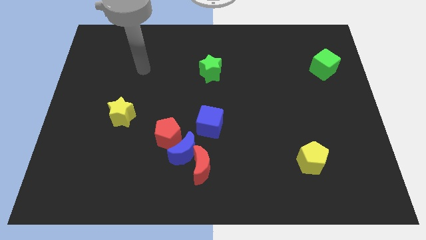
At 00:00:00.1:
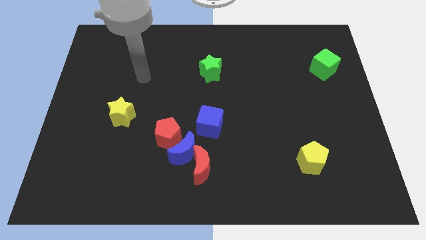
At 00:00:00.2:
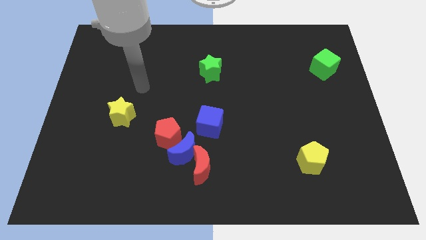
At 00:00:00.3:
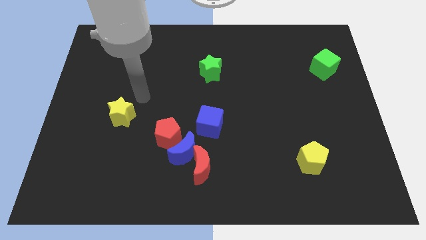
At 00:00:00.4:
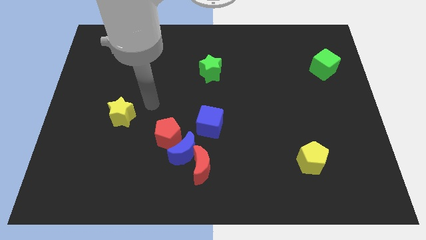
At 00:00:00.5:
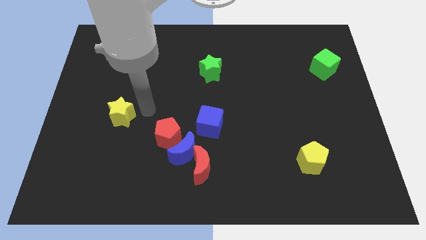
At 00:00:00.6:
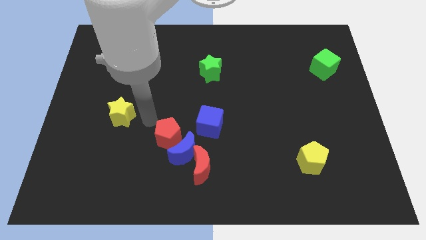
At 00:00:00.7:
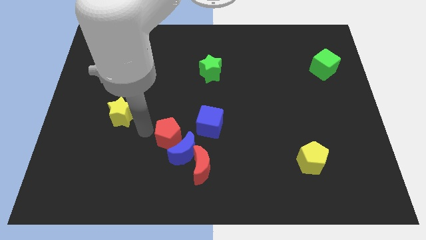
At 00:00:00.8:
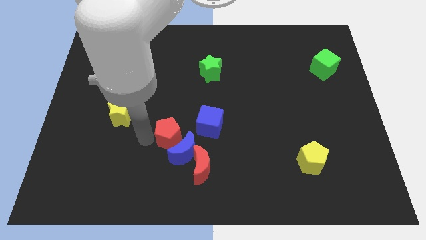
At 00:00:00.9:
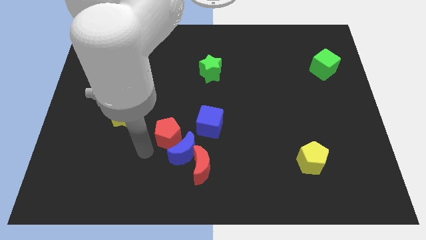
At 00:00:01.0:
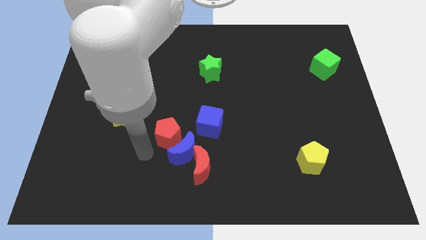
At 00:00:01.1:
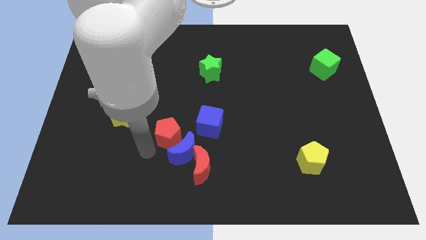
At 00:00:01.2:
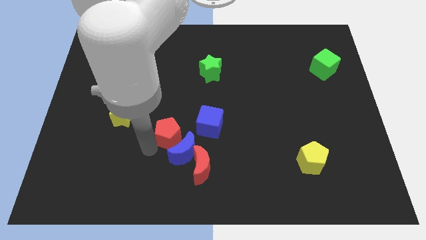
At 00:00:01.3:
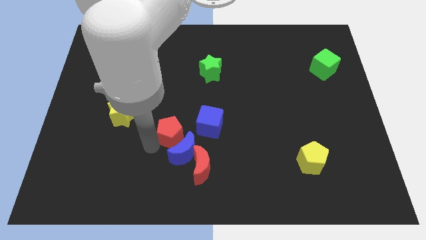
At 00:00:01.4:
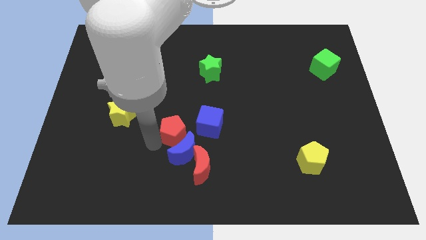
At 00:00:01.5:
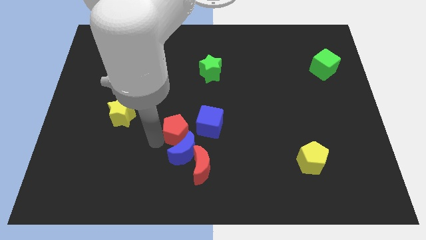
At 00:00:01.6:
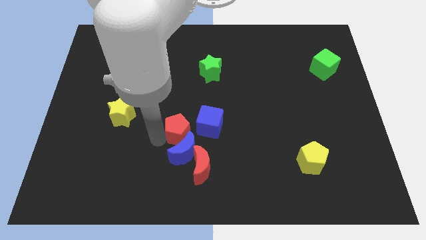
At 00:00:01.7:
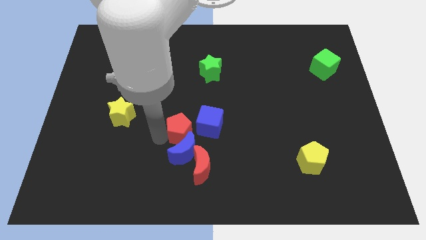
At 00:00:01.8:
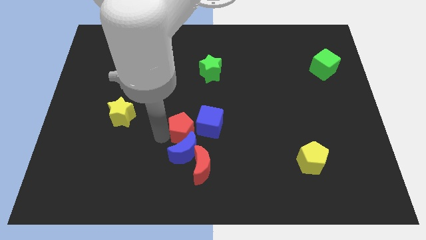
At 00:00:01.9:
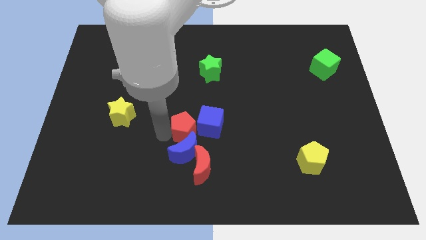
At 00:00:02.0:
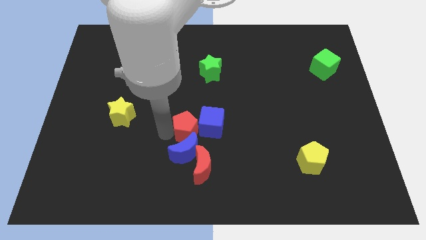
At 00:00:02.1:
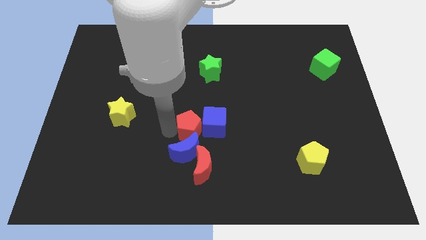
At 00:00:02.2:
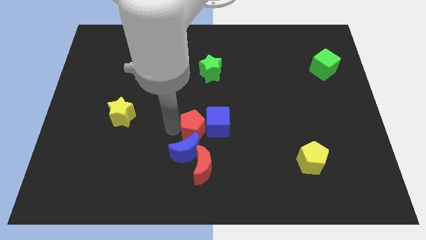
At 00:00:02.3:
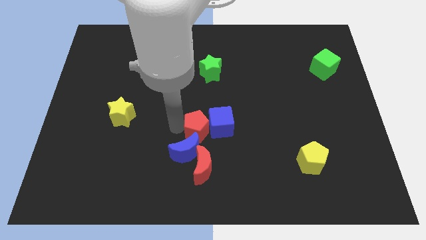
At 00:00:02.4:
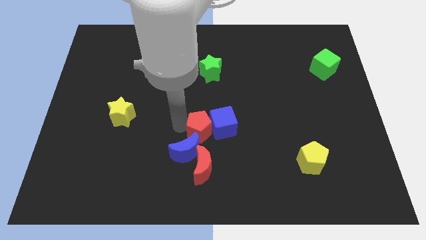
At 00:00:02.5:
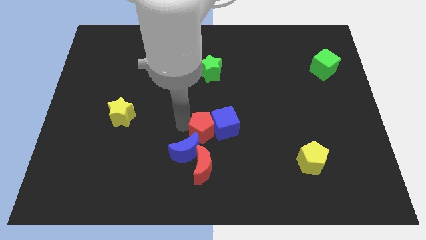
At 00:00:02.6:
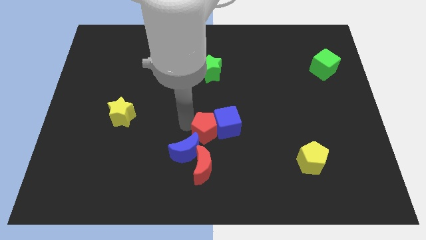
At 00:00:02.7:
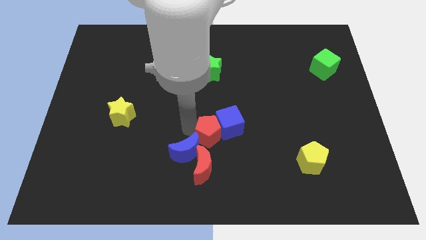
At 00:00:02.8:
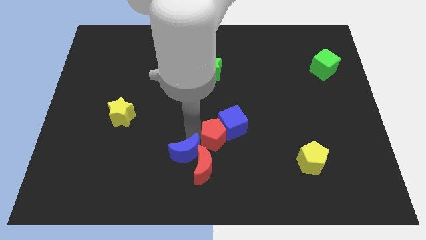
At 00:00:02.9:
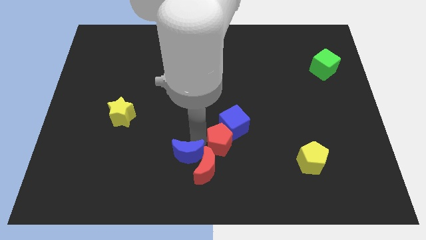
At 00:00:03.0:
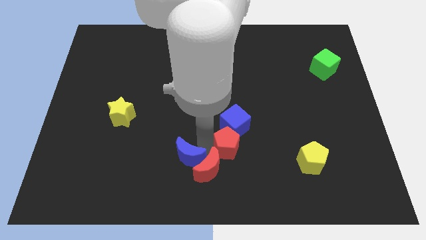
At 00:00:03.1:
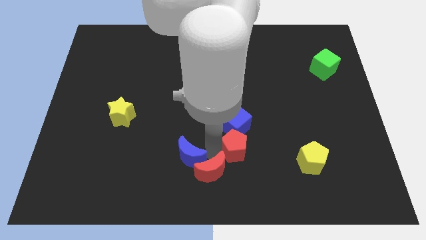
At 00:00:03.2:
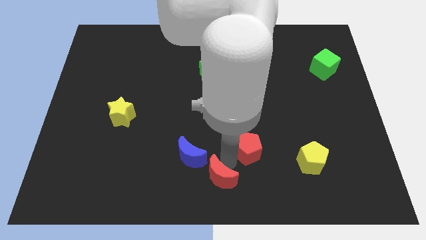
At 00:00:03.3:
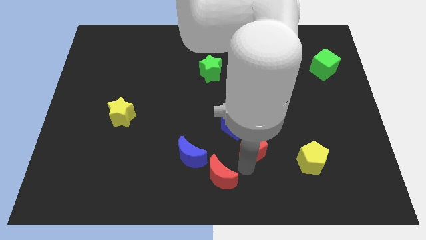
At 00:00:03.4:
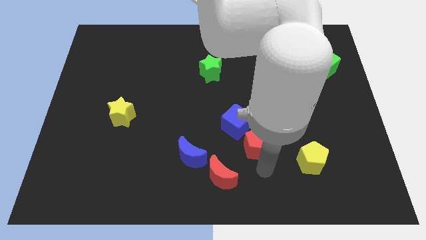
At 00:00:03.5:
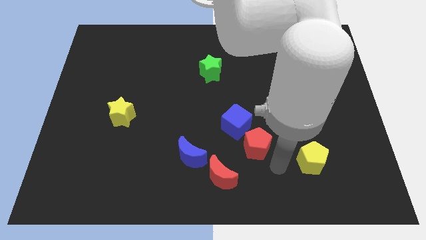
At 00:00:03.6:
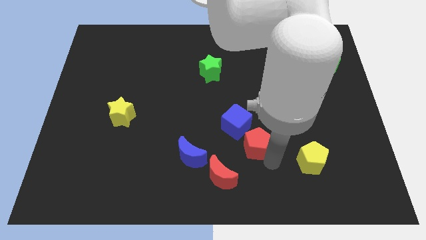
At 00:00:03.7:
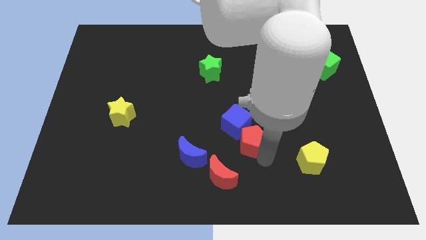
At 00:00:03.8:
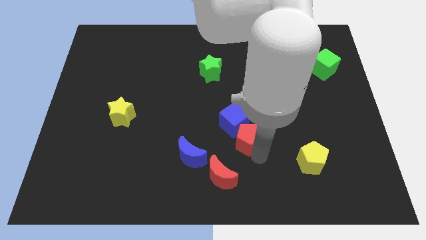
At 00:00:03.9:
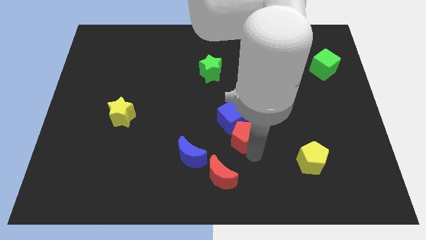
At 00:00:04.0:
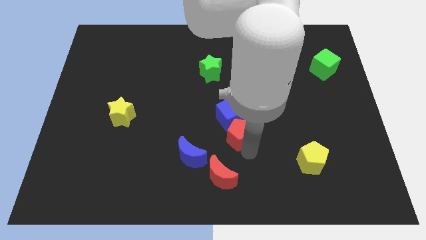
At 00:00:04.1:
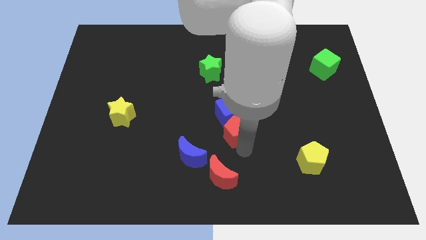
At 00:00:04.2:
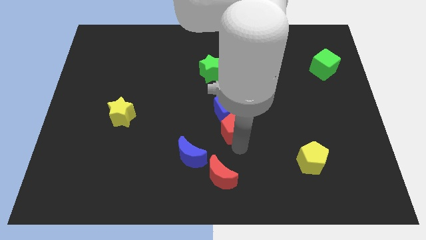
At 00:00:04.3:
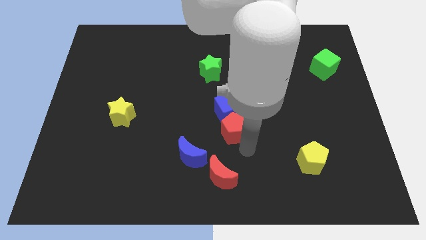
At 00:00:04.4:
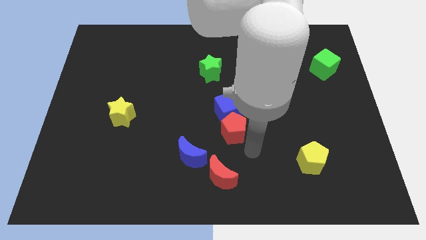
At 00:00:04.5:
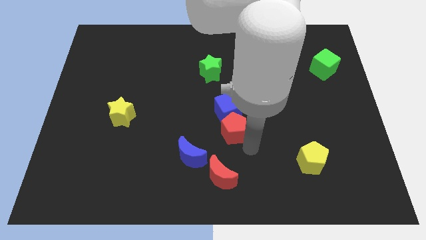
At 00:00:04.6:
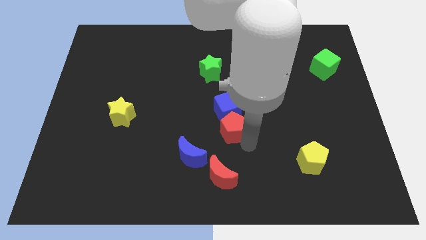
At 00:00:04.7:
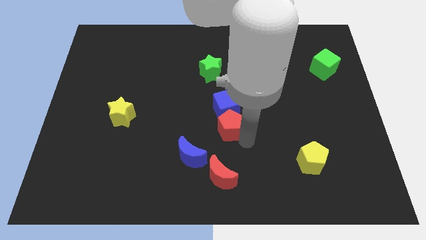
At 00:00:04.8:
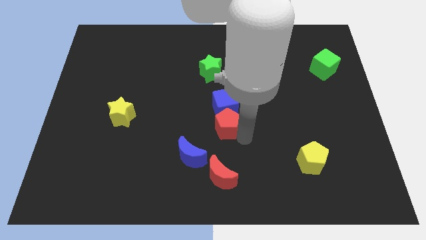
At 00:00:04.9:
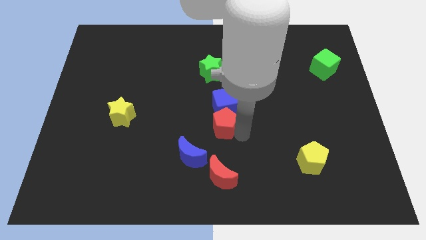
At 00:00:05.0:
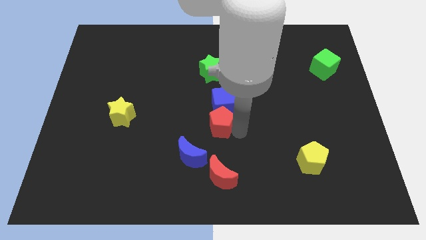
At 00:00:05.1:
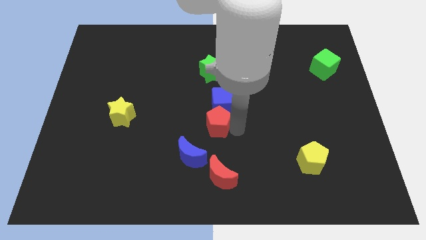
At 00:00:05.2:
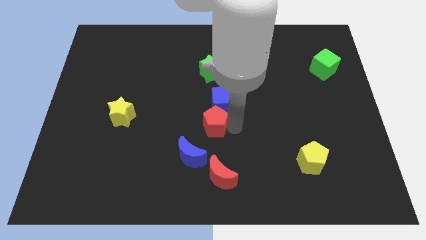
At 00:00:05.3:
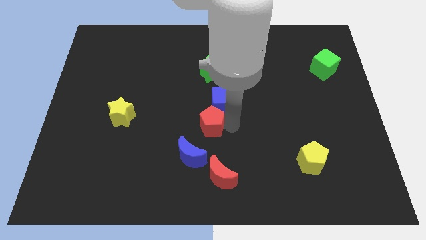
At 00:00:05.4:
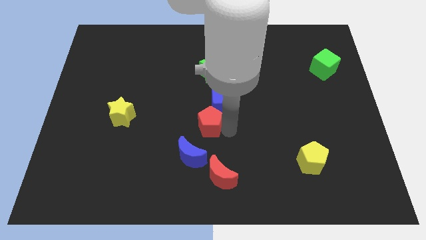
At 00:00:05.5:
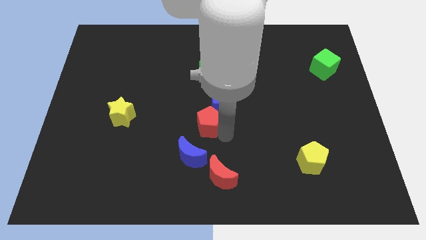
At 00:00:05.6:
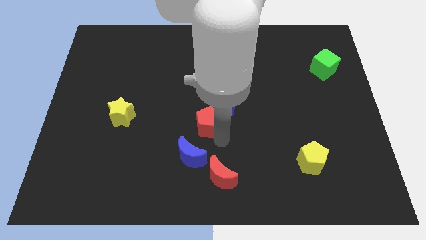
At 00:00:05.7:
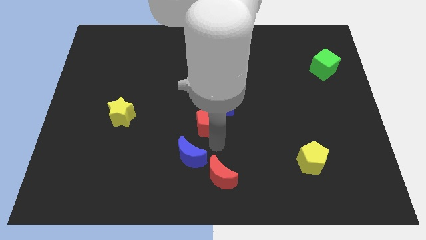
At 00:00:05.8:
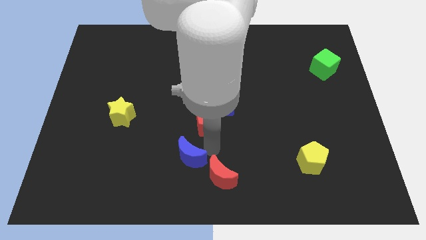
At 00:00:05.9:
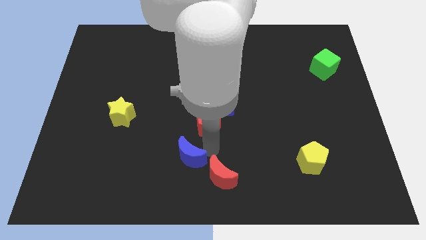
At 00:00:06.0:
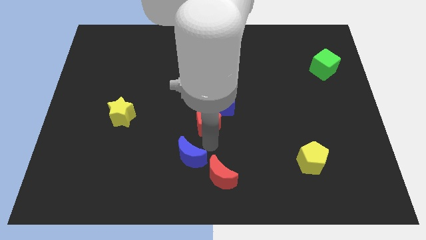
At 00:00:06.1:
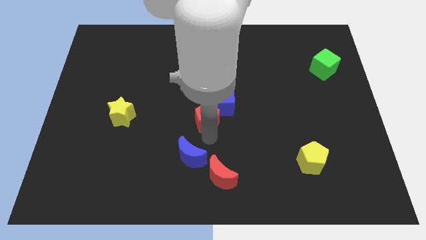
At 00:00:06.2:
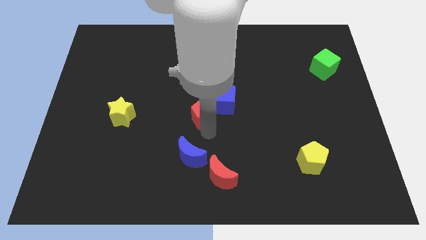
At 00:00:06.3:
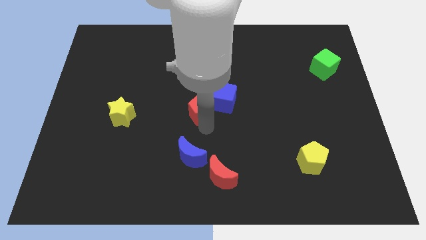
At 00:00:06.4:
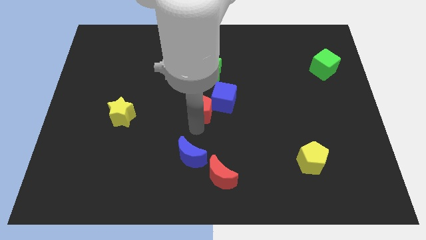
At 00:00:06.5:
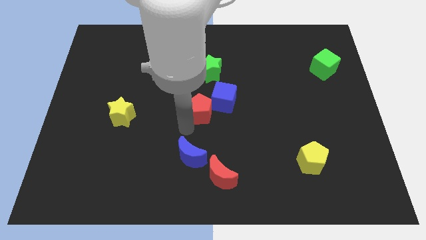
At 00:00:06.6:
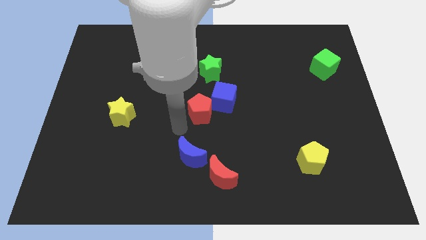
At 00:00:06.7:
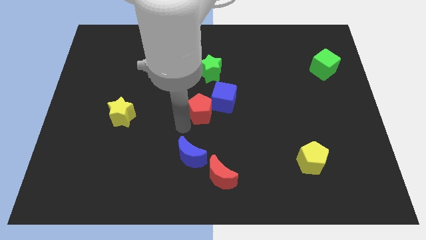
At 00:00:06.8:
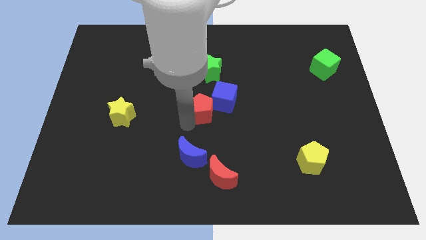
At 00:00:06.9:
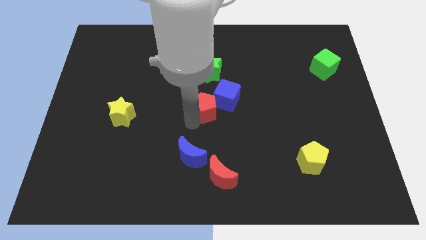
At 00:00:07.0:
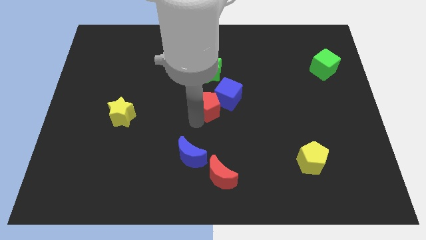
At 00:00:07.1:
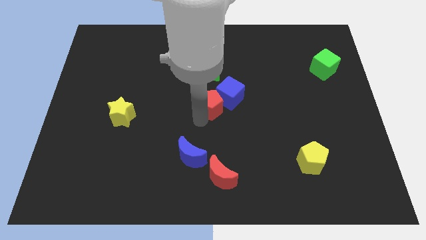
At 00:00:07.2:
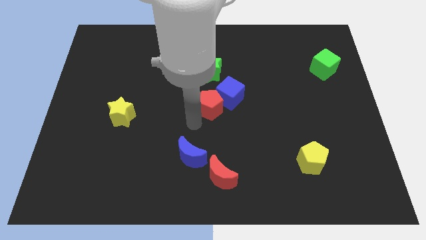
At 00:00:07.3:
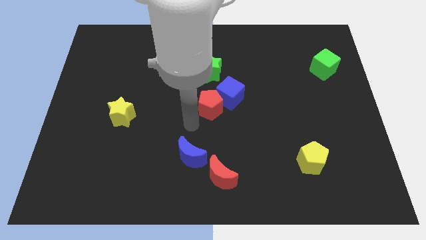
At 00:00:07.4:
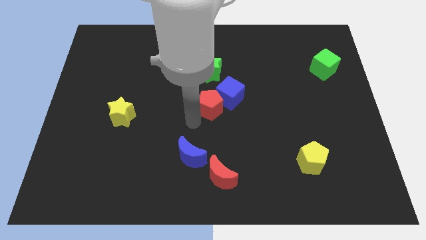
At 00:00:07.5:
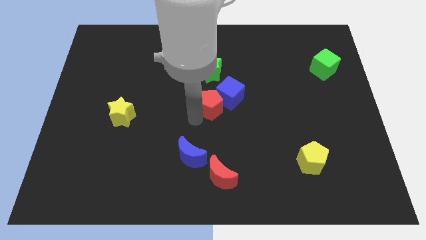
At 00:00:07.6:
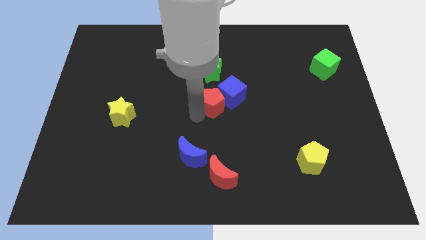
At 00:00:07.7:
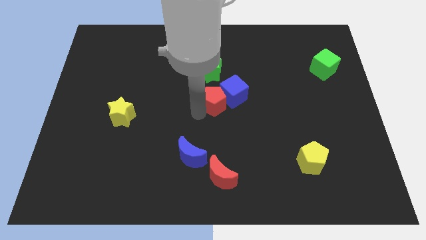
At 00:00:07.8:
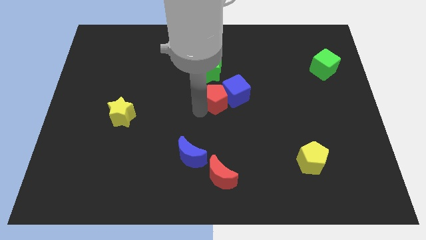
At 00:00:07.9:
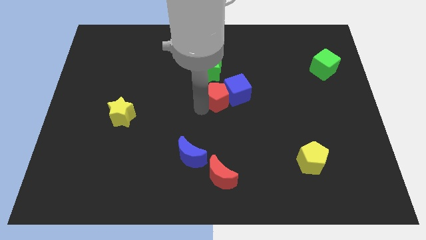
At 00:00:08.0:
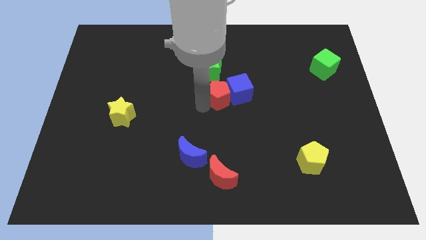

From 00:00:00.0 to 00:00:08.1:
put the red pentagon diagonally down and to the right of the green star
